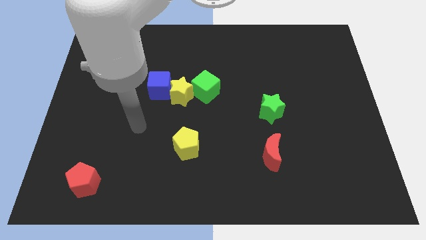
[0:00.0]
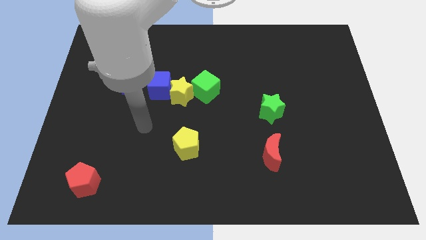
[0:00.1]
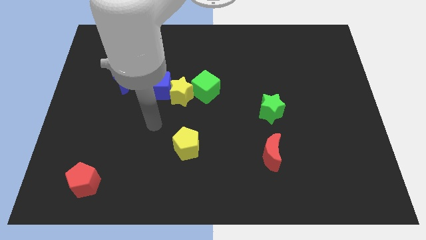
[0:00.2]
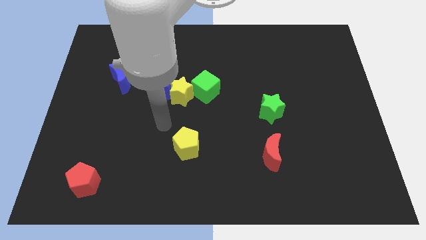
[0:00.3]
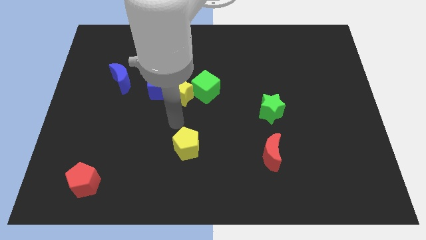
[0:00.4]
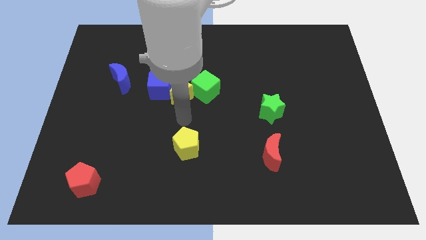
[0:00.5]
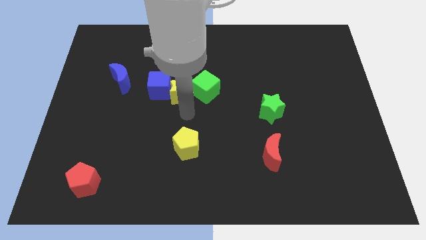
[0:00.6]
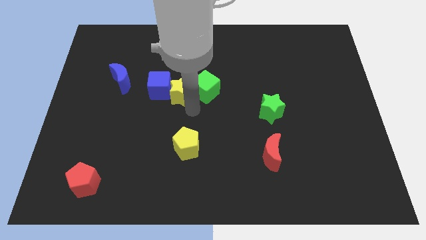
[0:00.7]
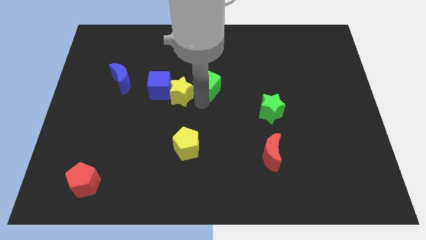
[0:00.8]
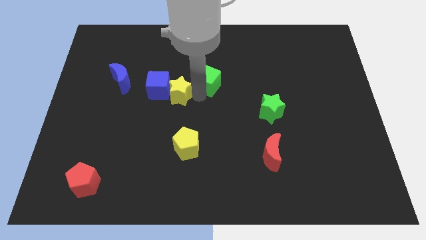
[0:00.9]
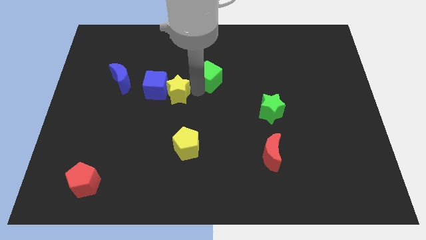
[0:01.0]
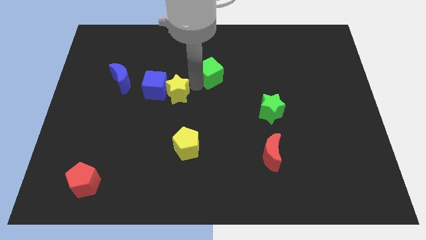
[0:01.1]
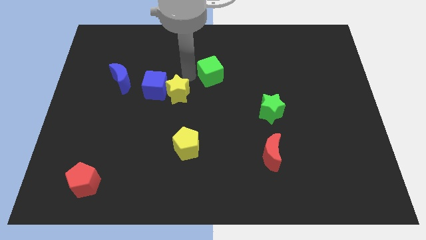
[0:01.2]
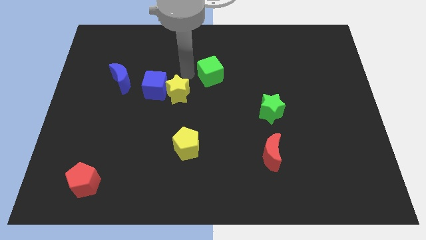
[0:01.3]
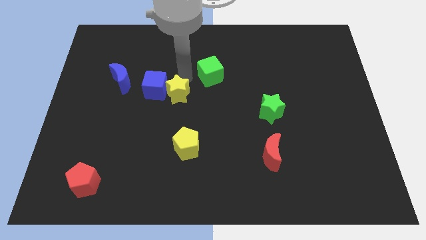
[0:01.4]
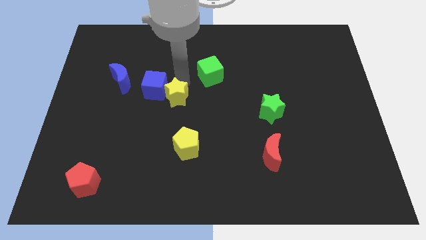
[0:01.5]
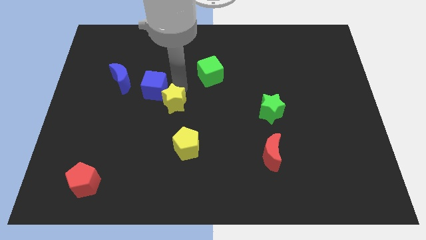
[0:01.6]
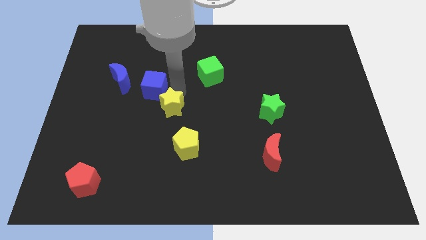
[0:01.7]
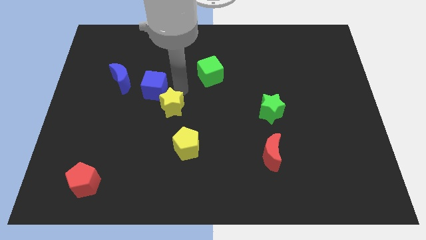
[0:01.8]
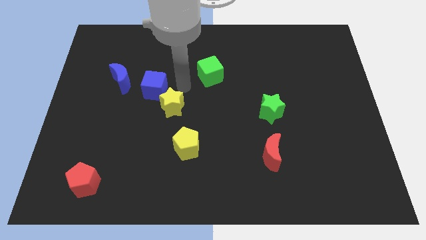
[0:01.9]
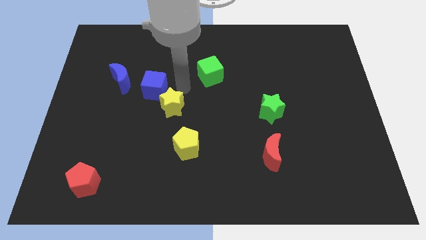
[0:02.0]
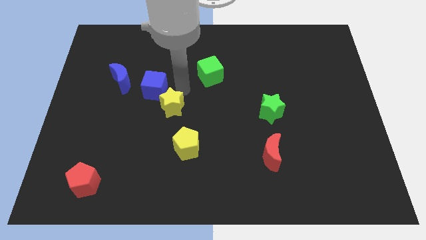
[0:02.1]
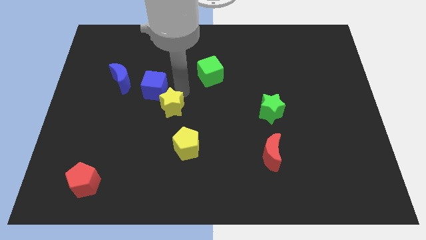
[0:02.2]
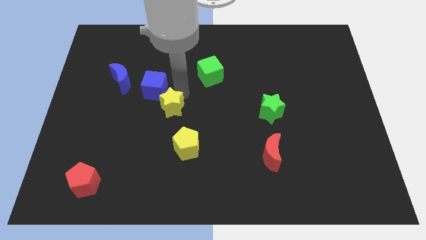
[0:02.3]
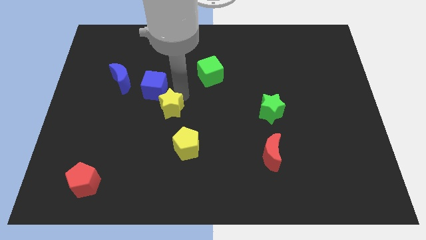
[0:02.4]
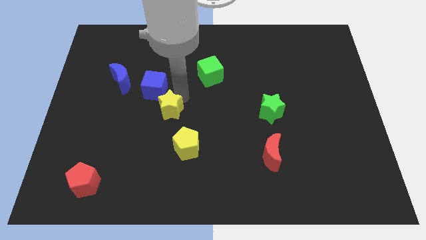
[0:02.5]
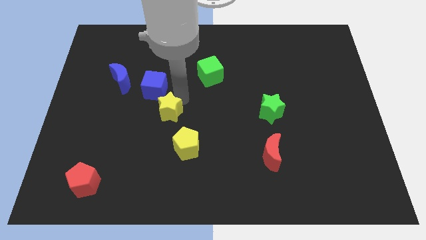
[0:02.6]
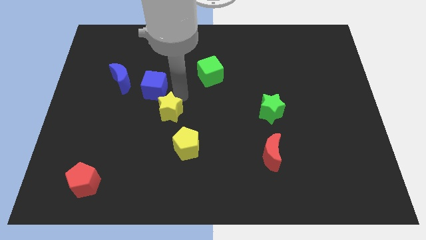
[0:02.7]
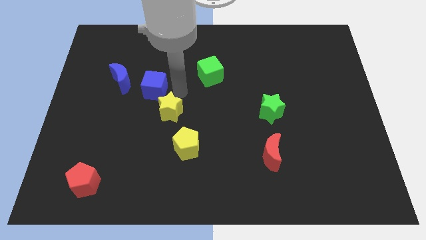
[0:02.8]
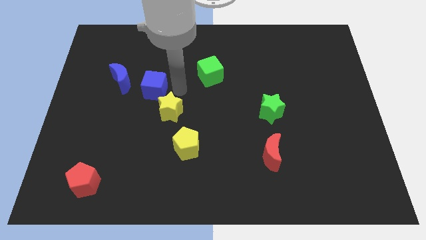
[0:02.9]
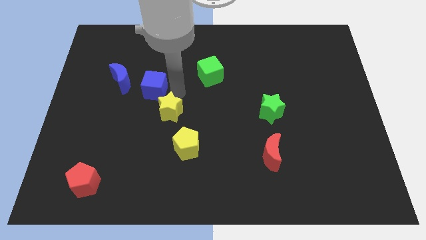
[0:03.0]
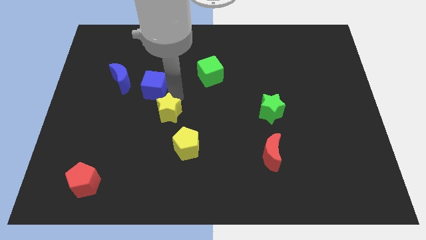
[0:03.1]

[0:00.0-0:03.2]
separate the yellow star from the blue cube and green cube

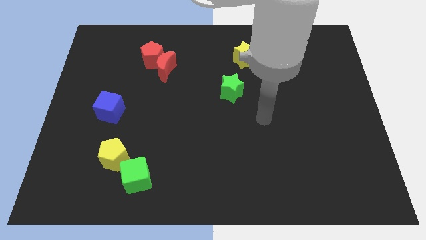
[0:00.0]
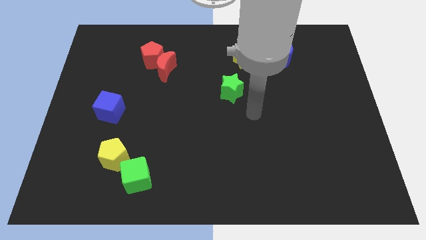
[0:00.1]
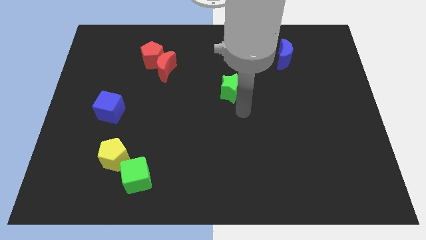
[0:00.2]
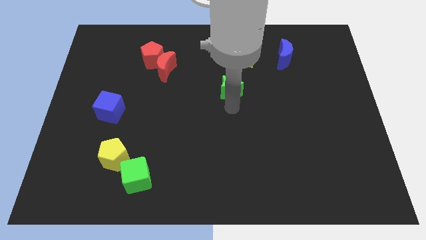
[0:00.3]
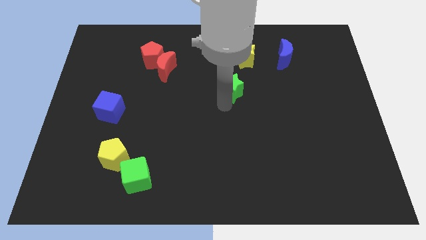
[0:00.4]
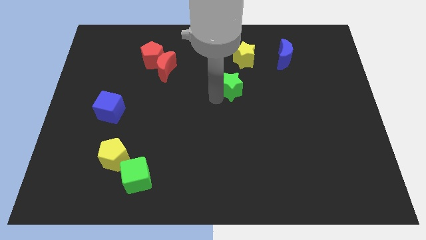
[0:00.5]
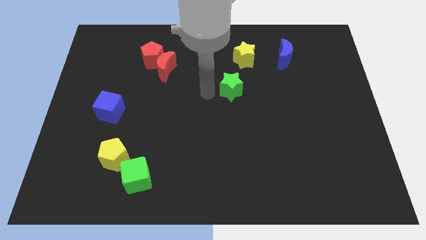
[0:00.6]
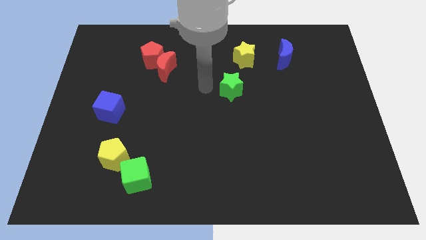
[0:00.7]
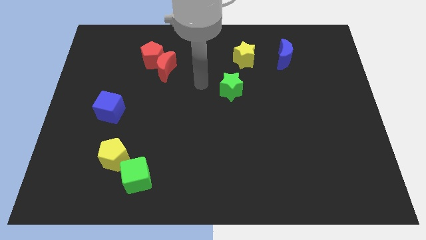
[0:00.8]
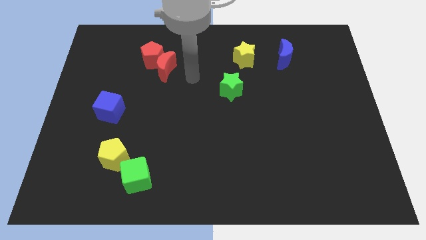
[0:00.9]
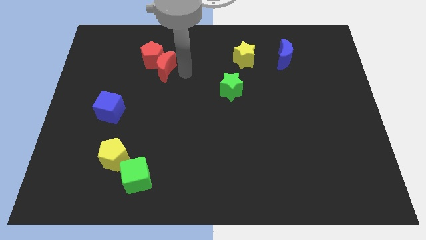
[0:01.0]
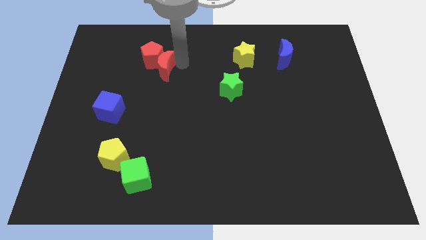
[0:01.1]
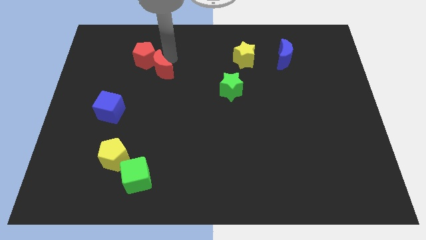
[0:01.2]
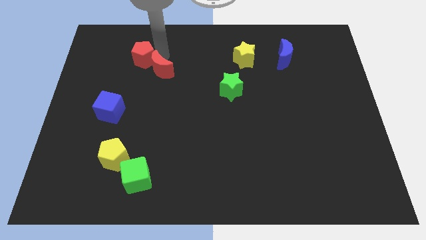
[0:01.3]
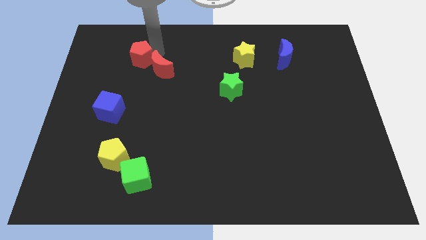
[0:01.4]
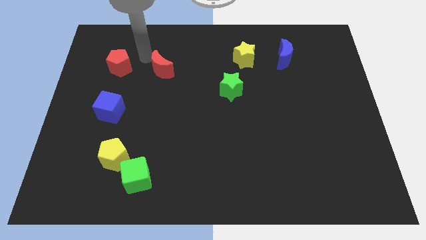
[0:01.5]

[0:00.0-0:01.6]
separate the red moon from the red pentagon

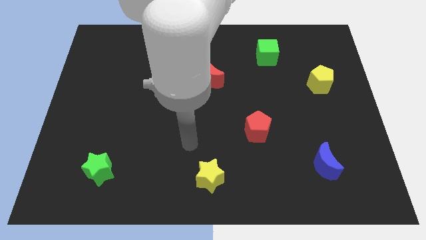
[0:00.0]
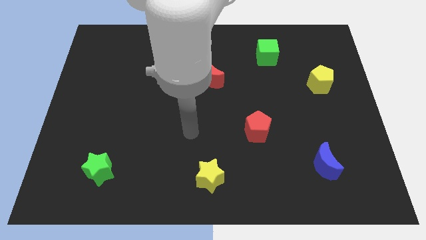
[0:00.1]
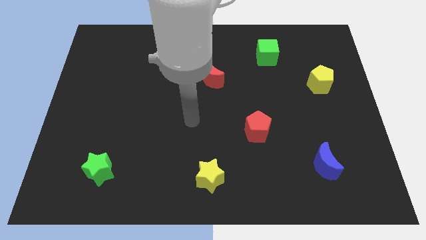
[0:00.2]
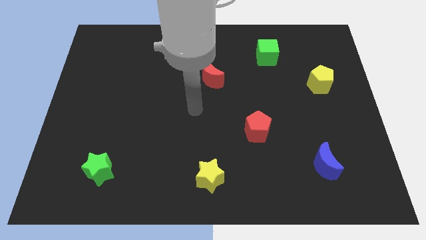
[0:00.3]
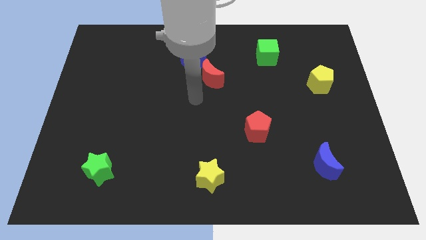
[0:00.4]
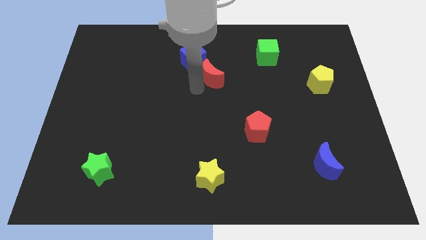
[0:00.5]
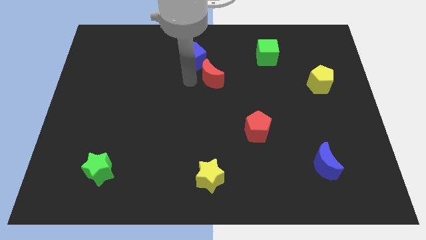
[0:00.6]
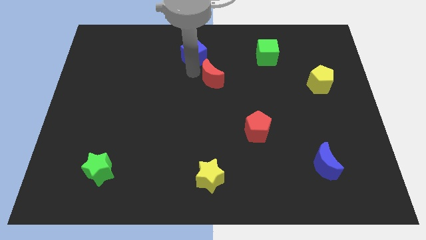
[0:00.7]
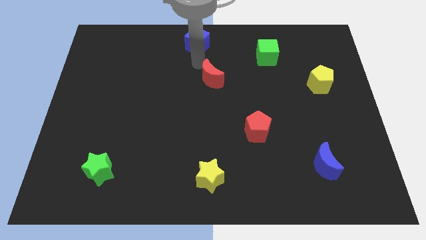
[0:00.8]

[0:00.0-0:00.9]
pull the red moon apart from the blue cube

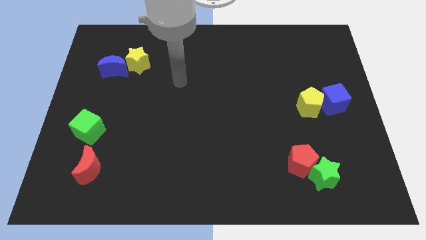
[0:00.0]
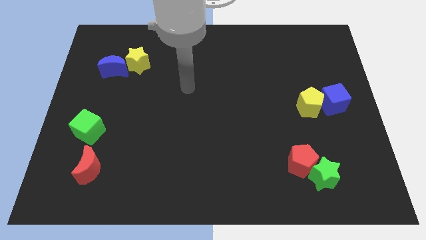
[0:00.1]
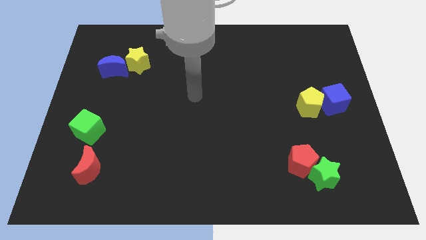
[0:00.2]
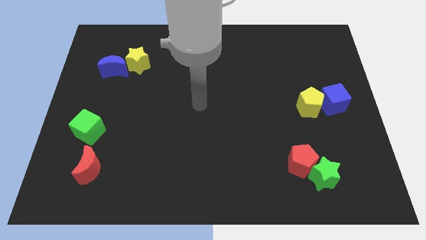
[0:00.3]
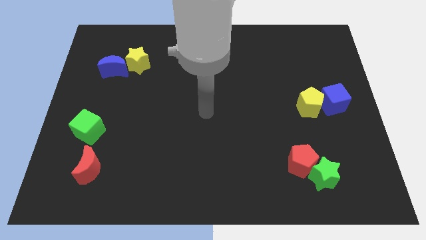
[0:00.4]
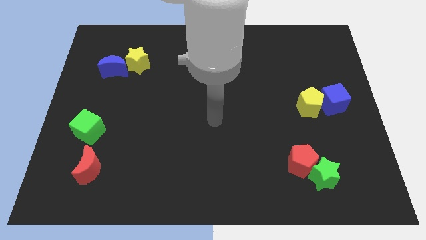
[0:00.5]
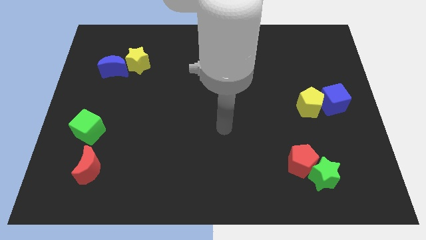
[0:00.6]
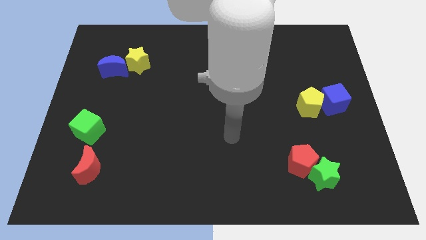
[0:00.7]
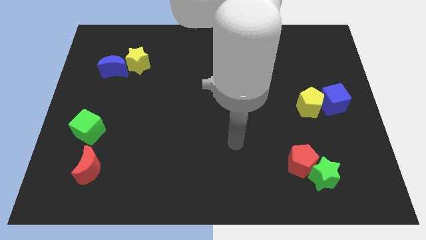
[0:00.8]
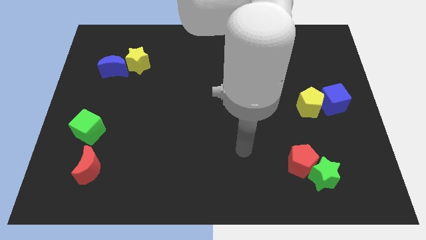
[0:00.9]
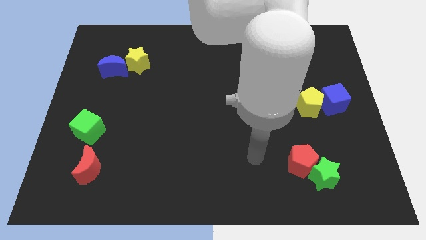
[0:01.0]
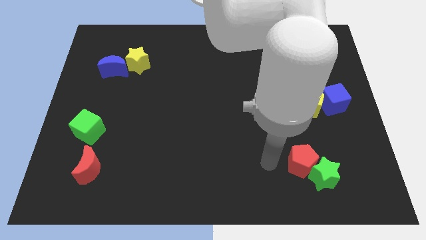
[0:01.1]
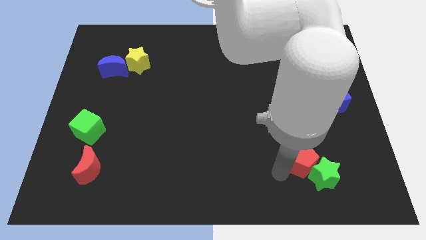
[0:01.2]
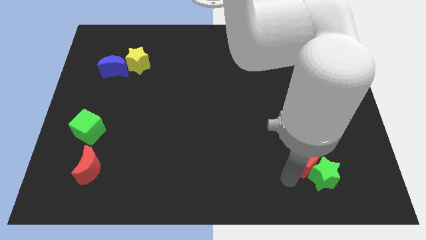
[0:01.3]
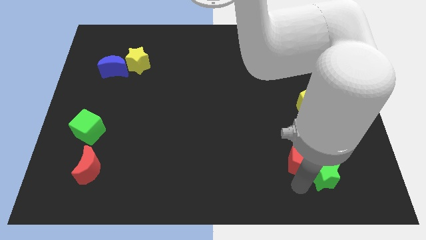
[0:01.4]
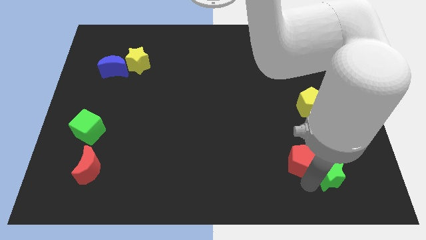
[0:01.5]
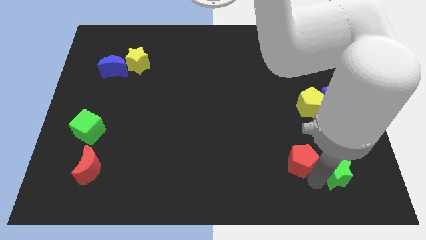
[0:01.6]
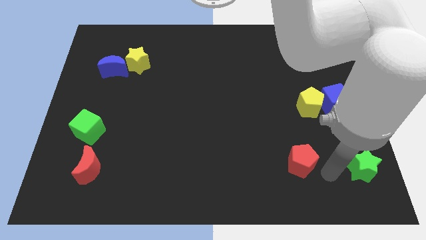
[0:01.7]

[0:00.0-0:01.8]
pull the red pentagon apart from the green star

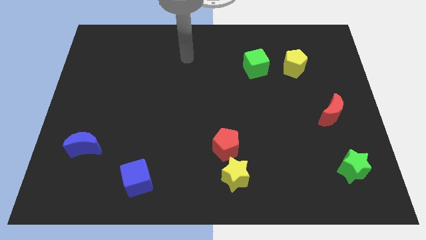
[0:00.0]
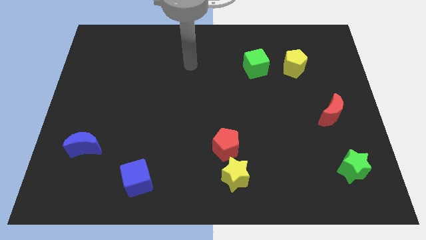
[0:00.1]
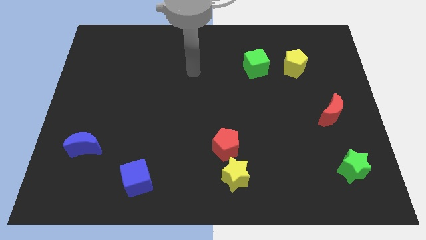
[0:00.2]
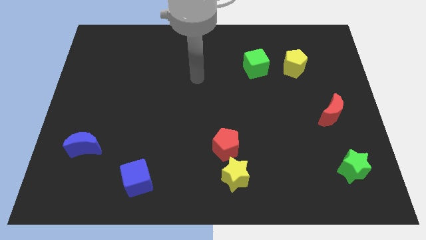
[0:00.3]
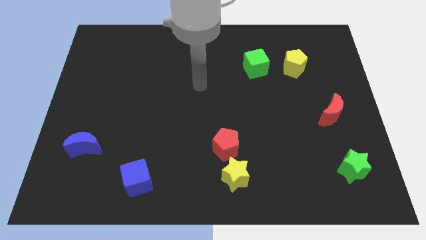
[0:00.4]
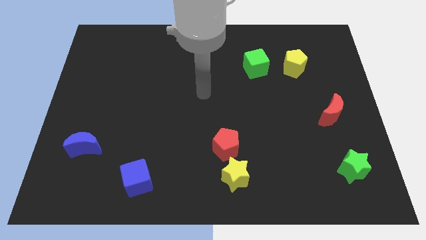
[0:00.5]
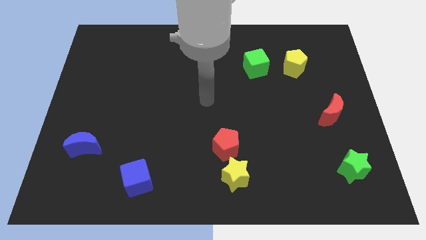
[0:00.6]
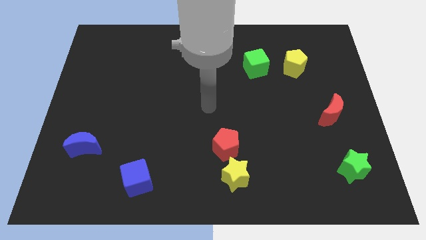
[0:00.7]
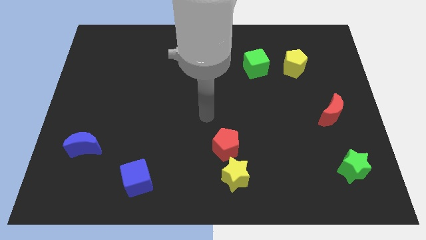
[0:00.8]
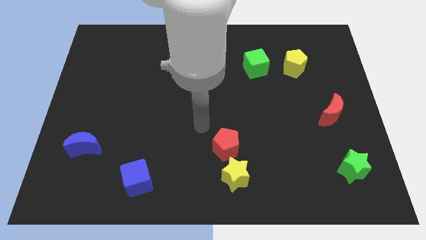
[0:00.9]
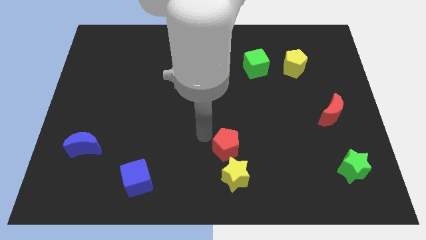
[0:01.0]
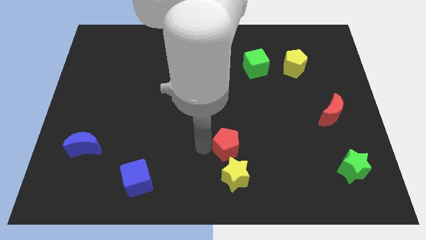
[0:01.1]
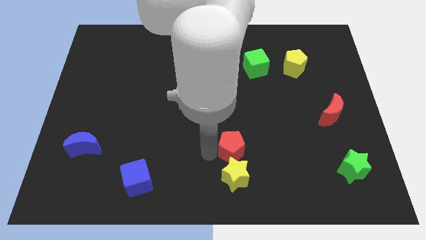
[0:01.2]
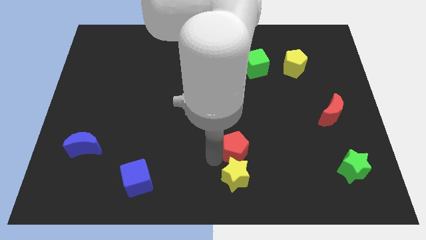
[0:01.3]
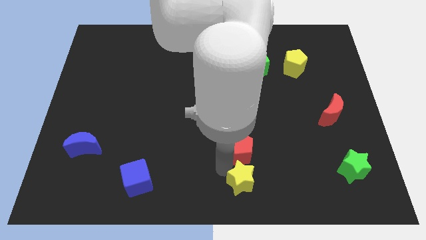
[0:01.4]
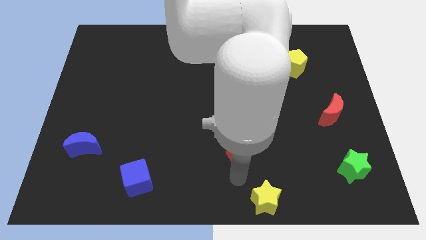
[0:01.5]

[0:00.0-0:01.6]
pull the red pentagon apart from the yellow star

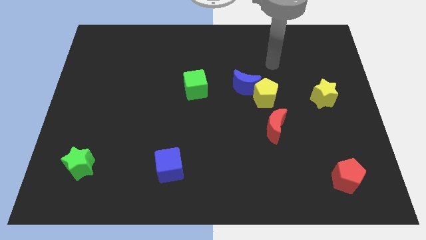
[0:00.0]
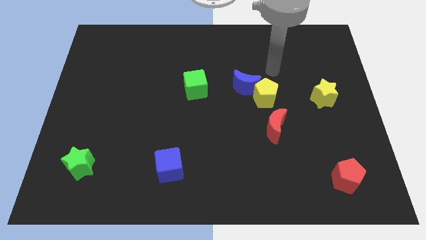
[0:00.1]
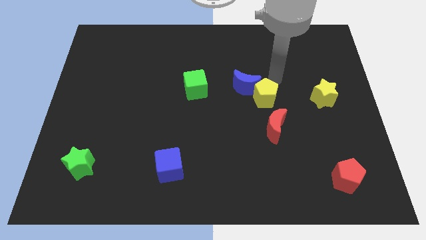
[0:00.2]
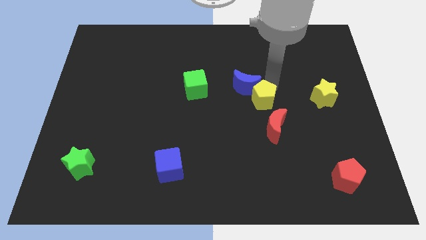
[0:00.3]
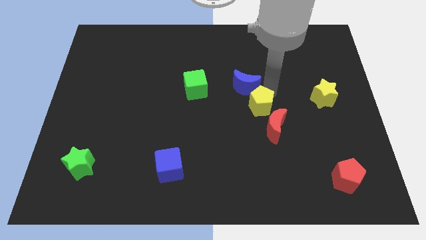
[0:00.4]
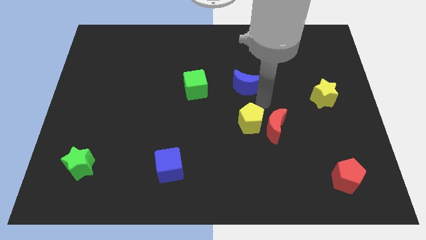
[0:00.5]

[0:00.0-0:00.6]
separate the blue moon from the yellow pentagon
